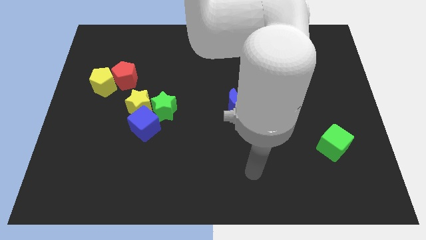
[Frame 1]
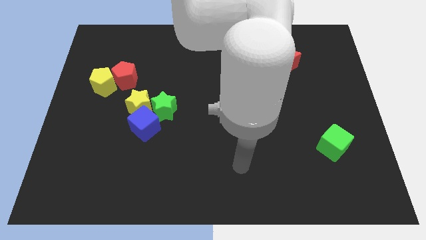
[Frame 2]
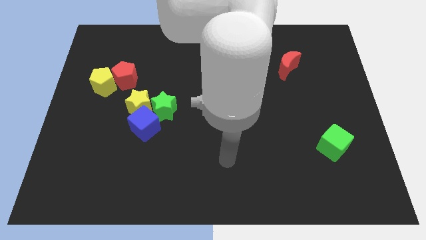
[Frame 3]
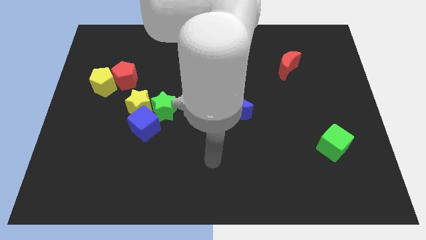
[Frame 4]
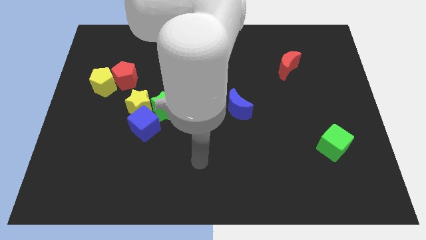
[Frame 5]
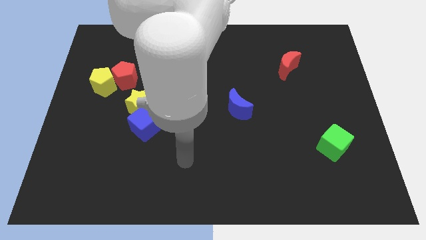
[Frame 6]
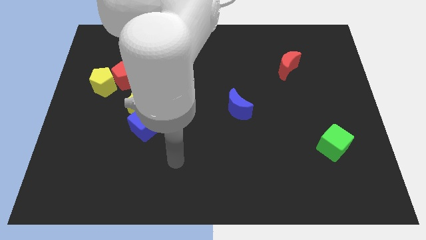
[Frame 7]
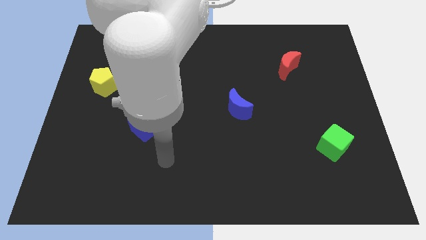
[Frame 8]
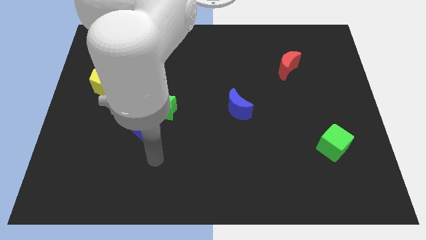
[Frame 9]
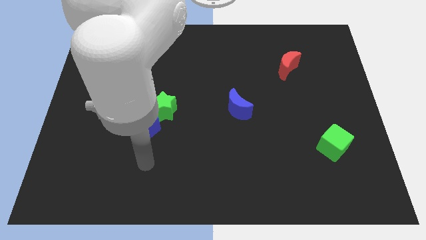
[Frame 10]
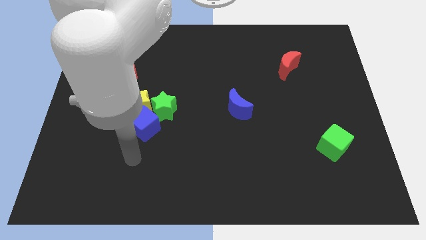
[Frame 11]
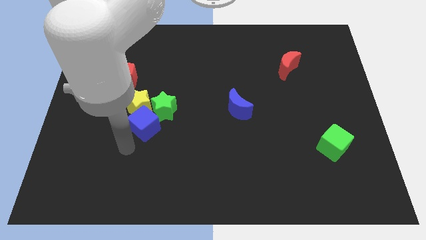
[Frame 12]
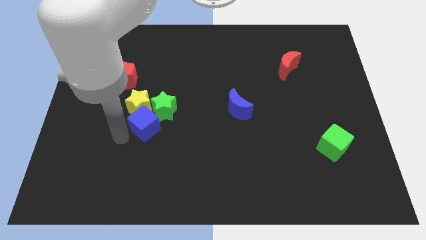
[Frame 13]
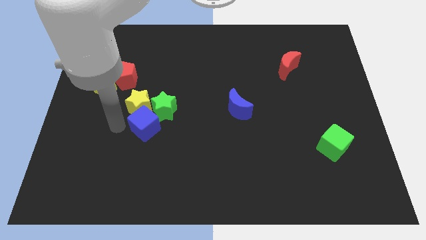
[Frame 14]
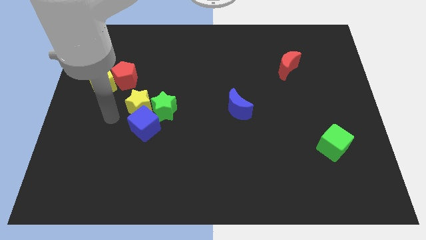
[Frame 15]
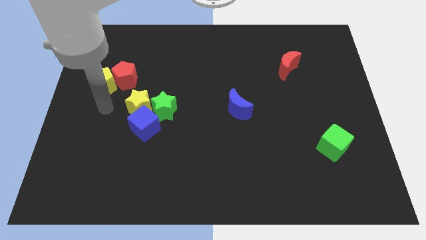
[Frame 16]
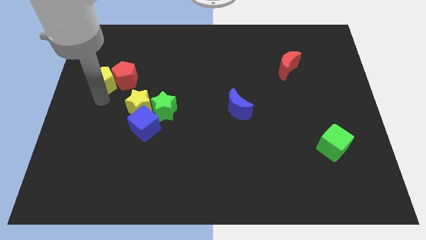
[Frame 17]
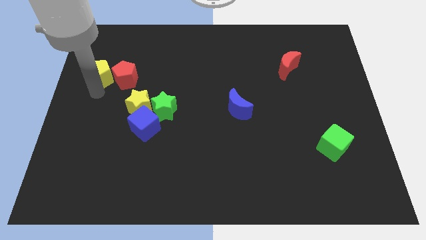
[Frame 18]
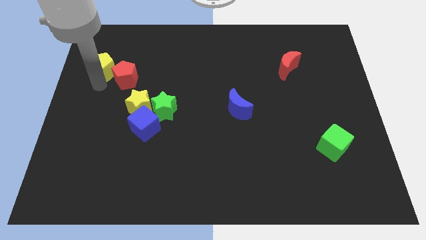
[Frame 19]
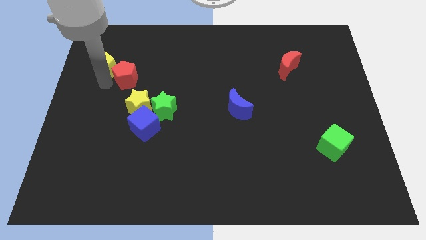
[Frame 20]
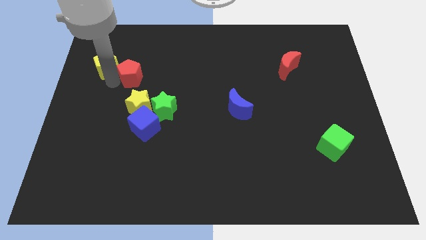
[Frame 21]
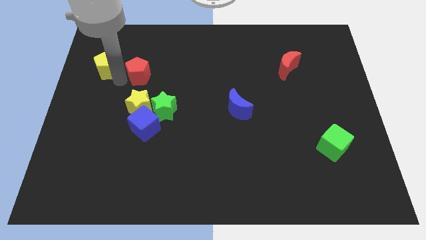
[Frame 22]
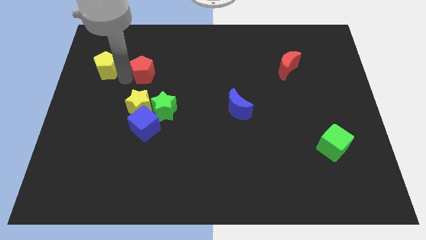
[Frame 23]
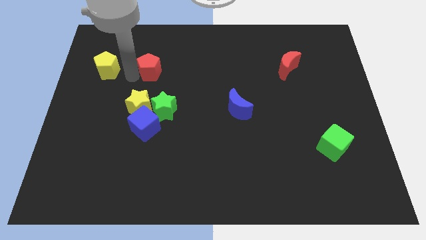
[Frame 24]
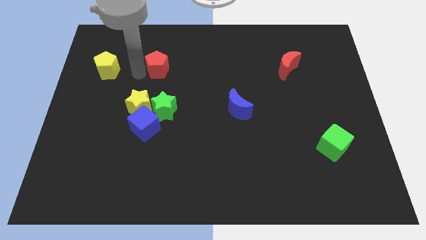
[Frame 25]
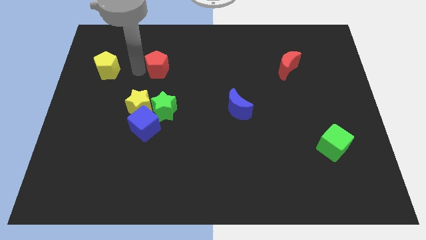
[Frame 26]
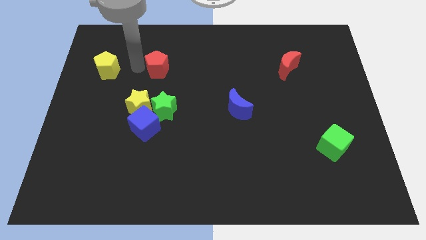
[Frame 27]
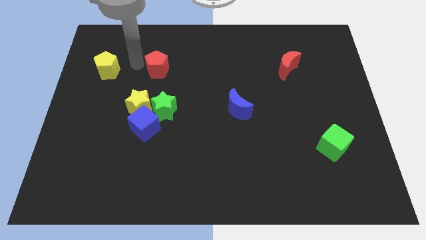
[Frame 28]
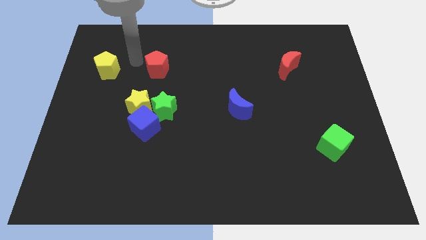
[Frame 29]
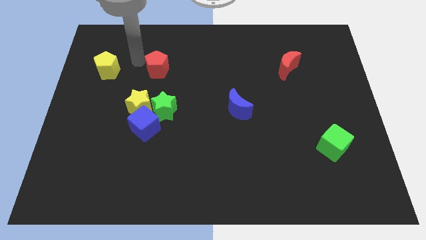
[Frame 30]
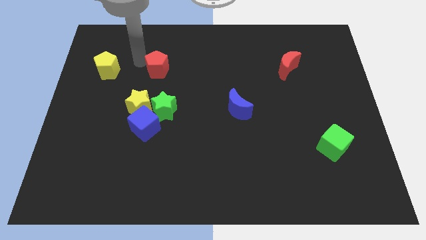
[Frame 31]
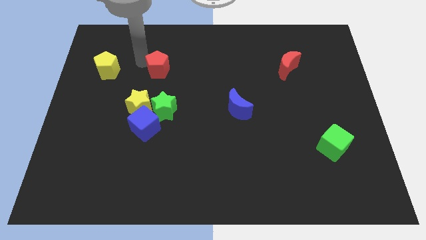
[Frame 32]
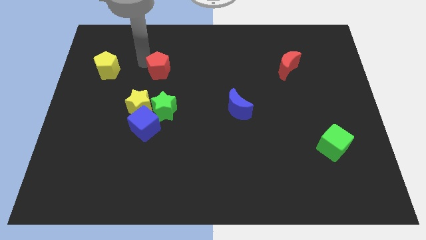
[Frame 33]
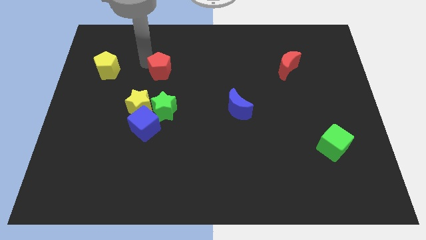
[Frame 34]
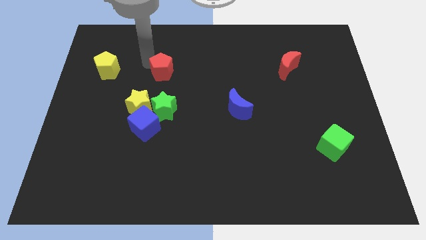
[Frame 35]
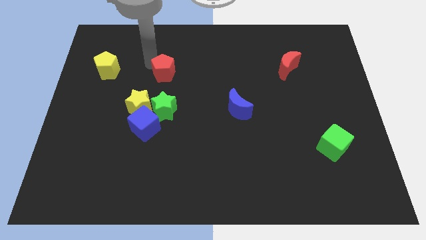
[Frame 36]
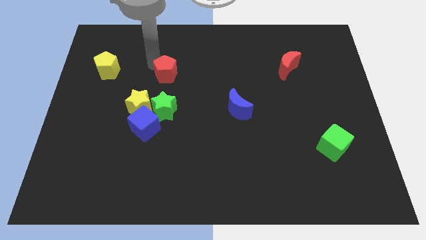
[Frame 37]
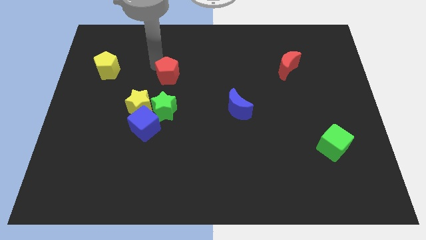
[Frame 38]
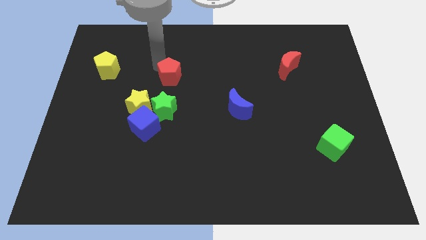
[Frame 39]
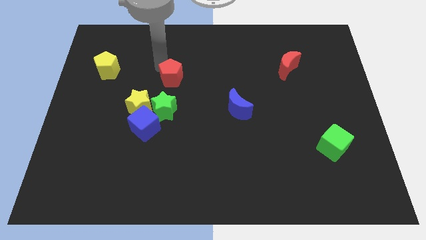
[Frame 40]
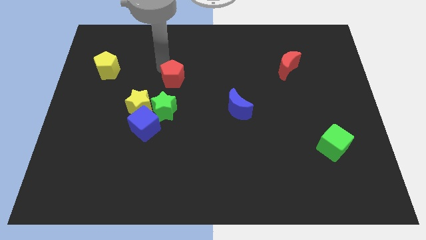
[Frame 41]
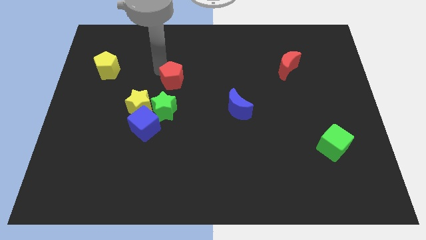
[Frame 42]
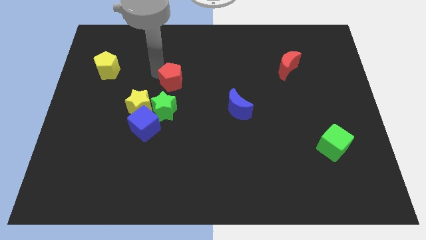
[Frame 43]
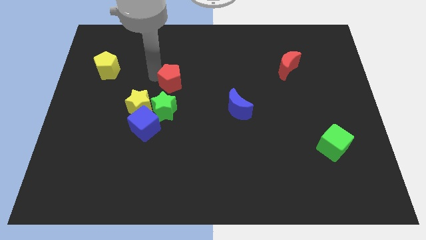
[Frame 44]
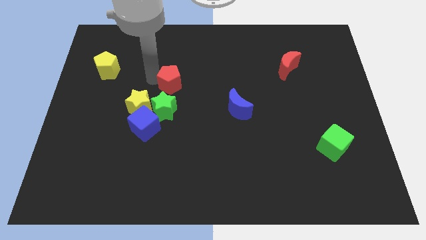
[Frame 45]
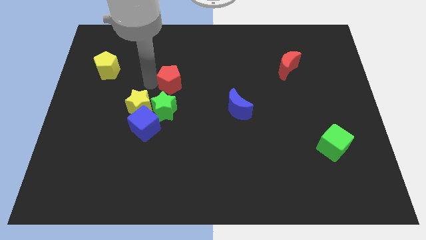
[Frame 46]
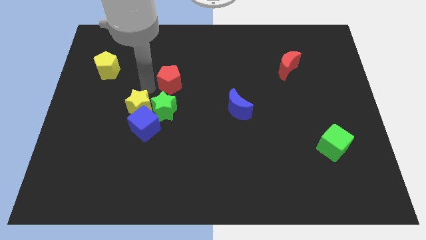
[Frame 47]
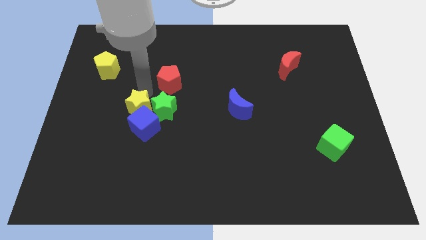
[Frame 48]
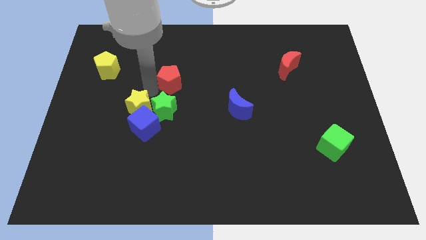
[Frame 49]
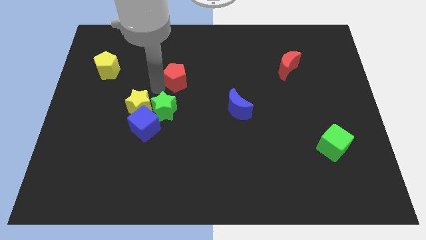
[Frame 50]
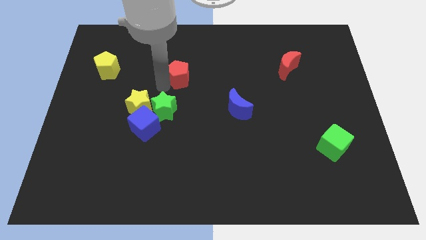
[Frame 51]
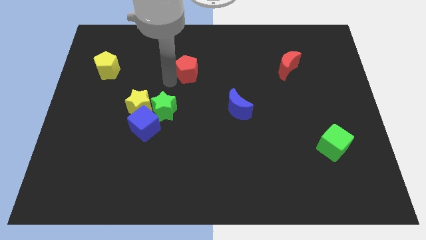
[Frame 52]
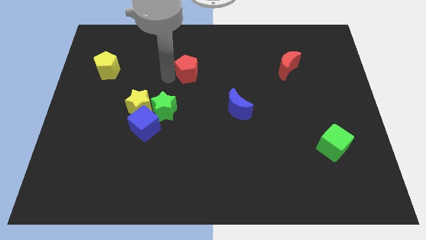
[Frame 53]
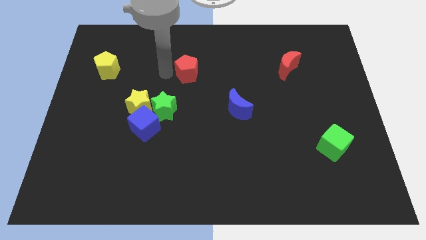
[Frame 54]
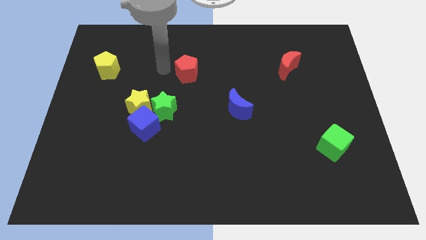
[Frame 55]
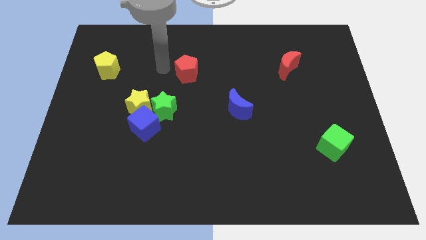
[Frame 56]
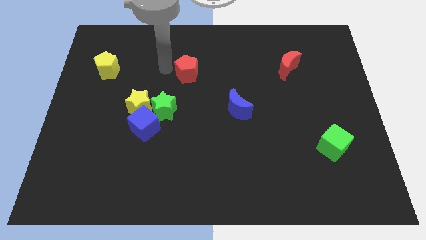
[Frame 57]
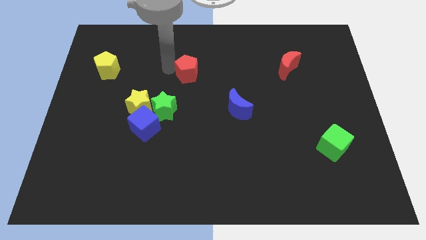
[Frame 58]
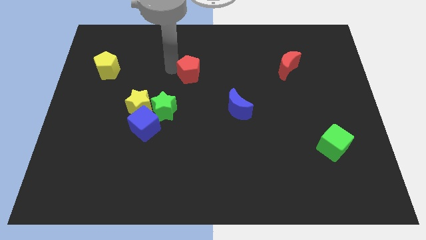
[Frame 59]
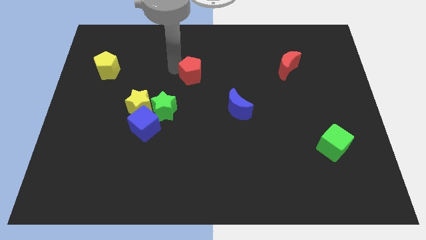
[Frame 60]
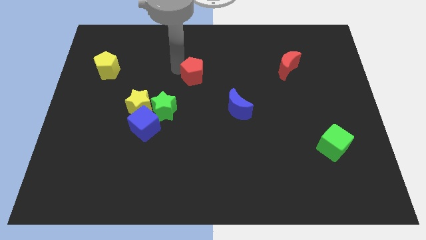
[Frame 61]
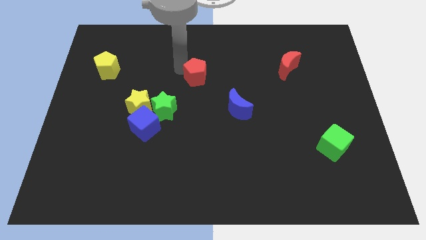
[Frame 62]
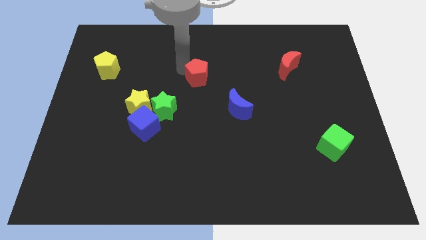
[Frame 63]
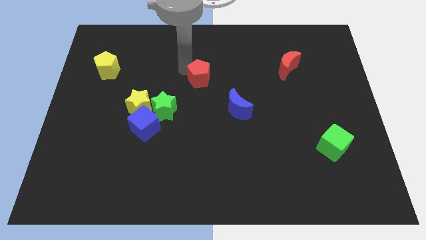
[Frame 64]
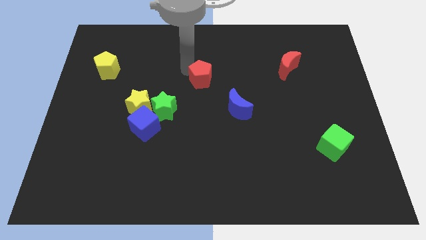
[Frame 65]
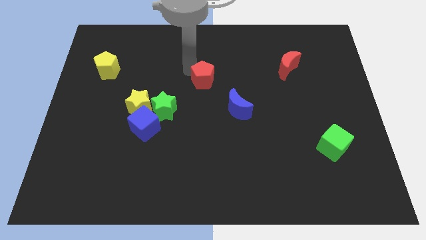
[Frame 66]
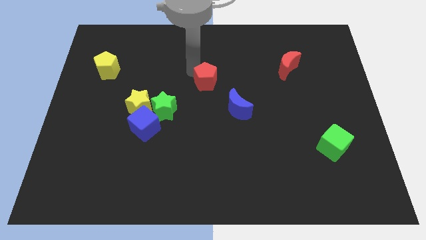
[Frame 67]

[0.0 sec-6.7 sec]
slide the red pentagon right

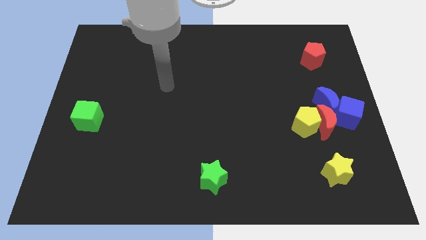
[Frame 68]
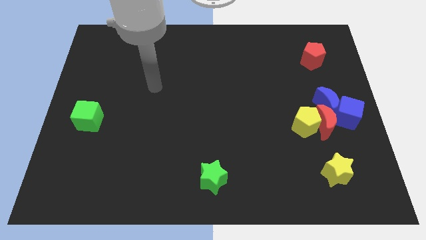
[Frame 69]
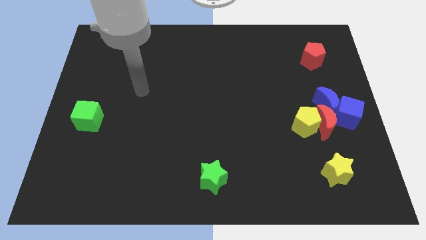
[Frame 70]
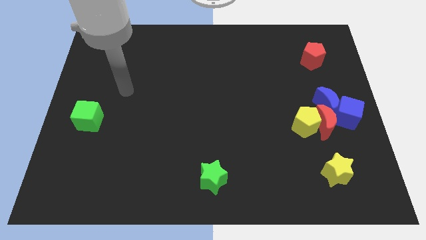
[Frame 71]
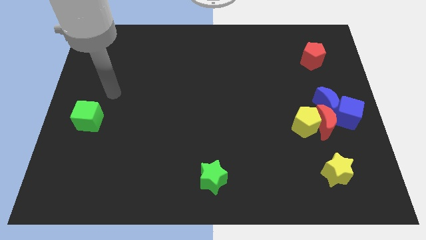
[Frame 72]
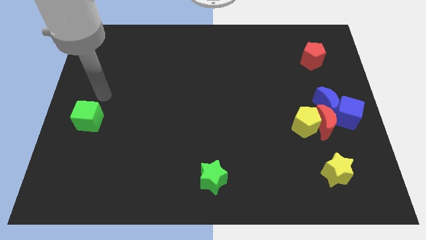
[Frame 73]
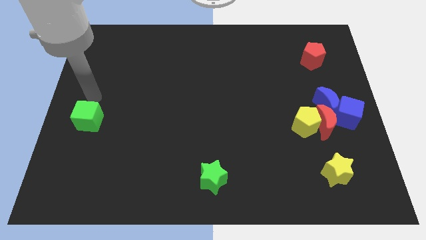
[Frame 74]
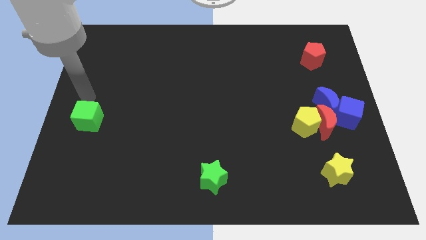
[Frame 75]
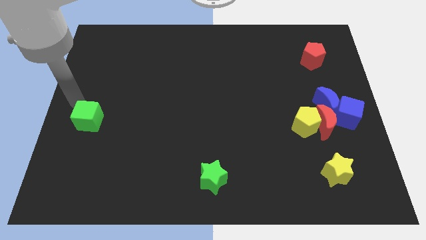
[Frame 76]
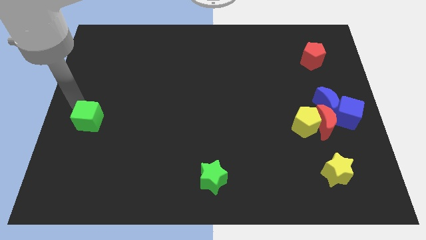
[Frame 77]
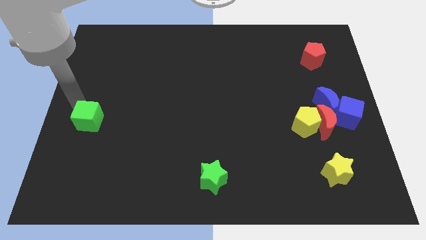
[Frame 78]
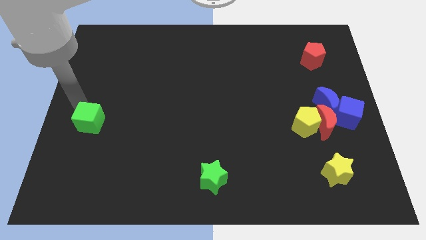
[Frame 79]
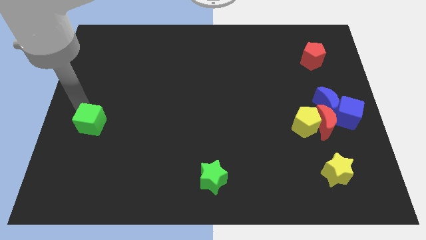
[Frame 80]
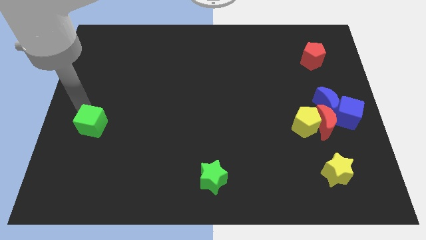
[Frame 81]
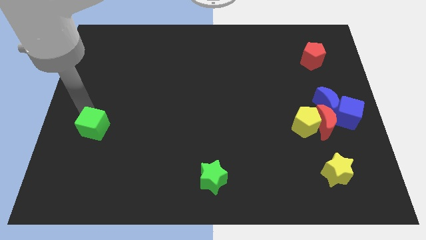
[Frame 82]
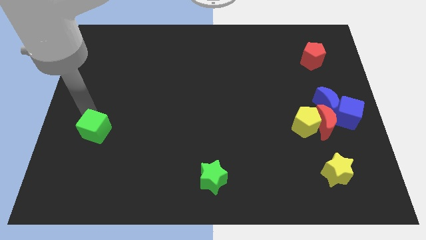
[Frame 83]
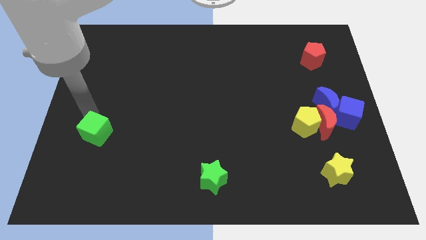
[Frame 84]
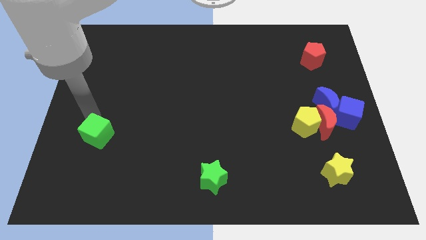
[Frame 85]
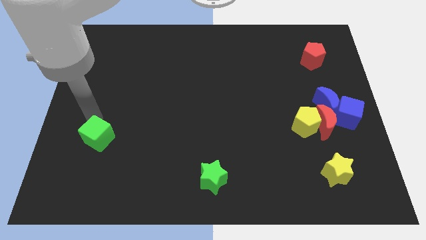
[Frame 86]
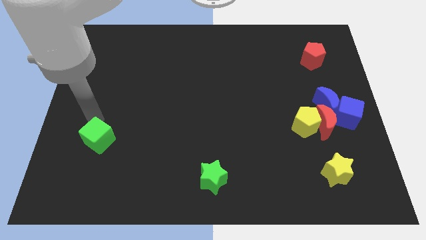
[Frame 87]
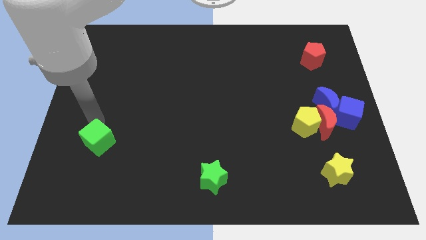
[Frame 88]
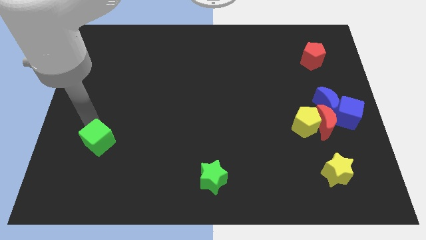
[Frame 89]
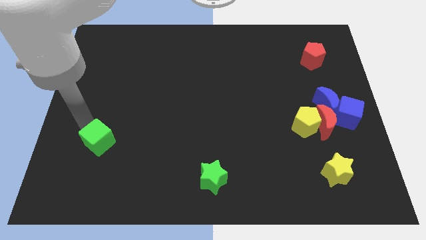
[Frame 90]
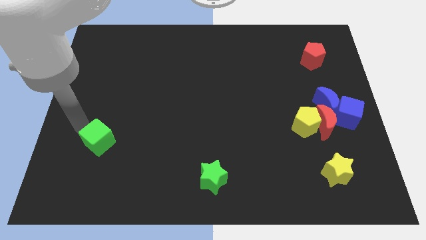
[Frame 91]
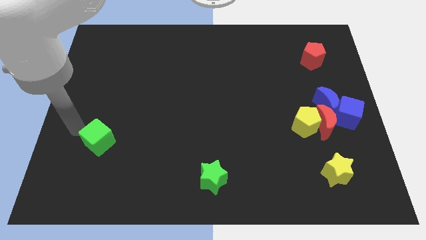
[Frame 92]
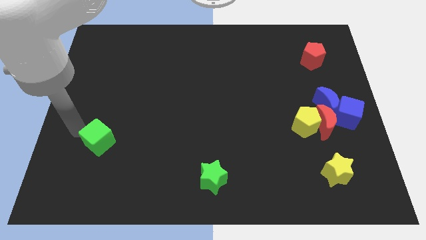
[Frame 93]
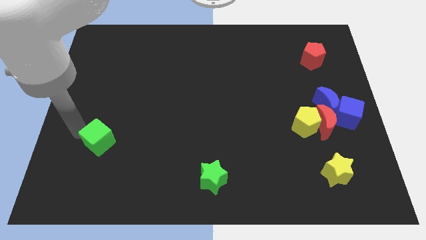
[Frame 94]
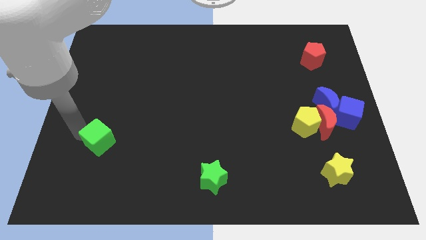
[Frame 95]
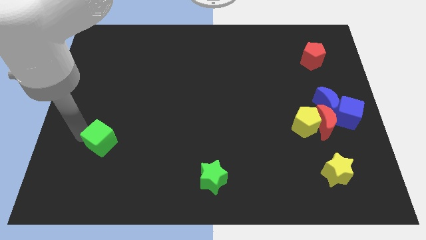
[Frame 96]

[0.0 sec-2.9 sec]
slightly slide the green cube down and to the right diagonally
